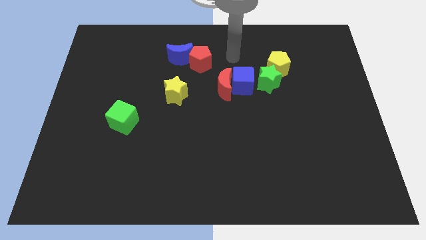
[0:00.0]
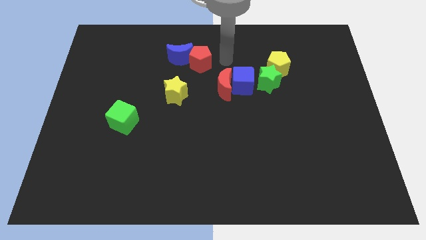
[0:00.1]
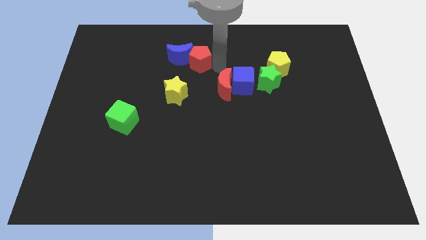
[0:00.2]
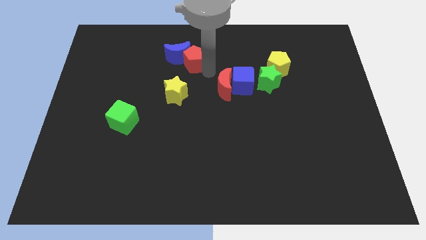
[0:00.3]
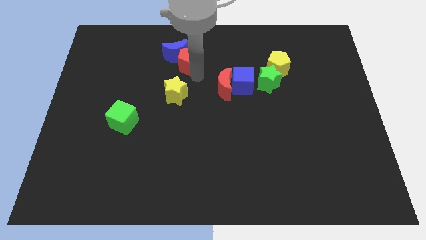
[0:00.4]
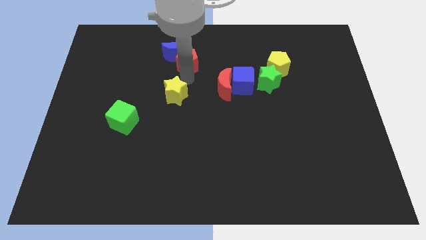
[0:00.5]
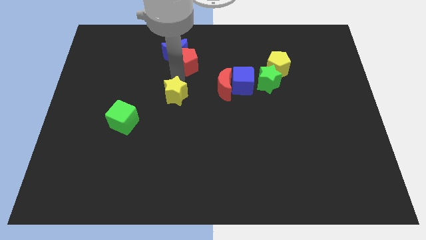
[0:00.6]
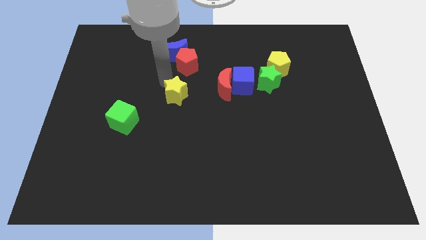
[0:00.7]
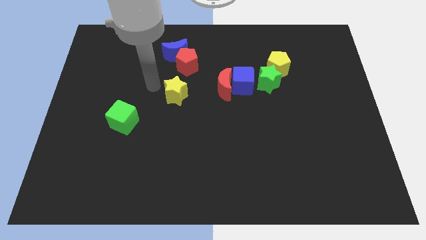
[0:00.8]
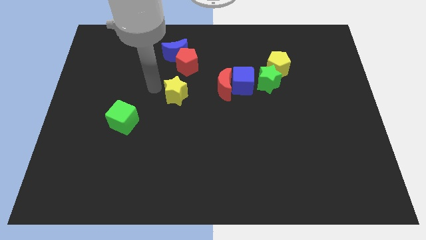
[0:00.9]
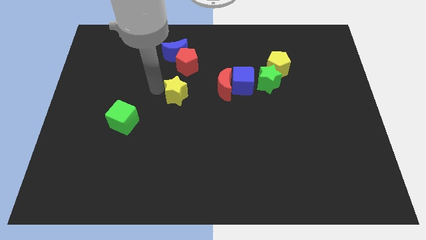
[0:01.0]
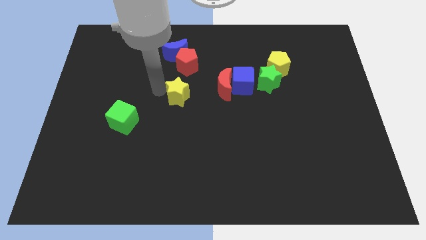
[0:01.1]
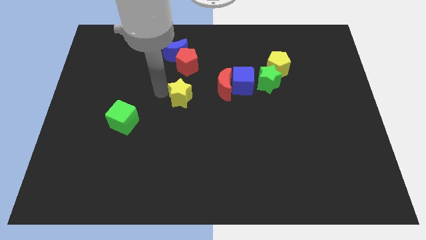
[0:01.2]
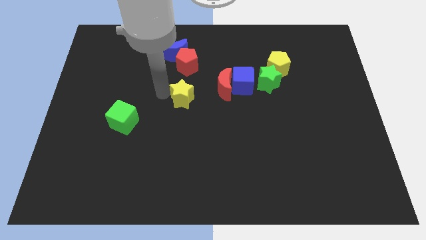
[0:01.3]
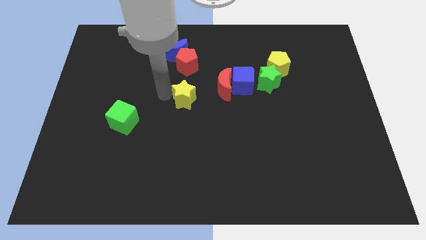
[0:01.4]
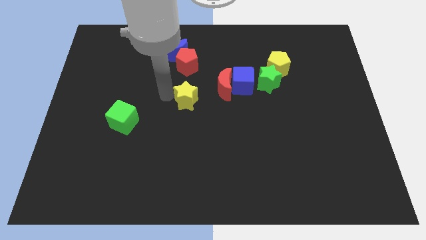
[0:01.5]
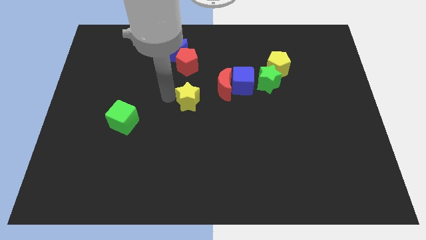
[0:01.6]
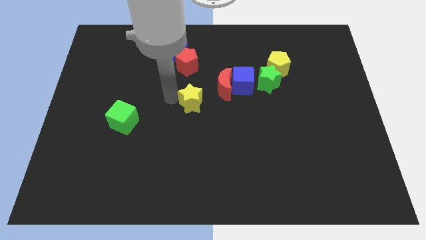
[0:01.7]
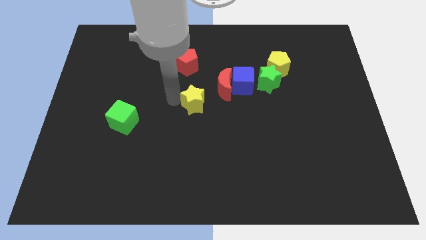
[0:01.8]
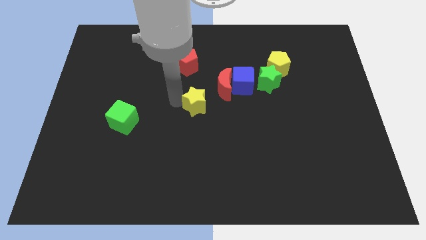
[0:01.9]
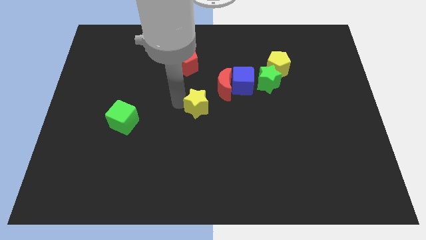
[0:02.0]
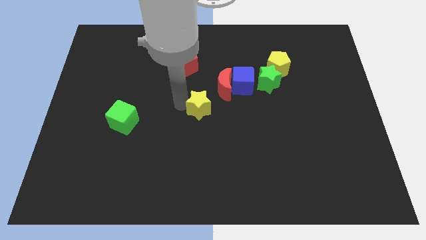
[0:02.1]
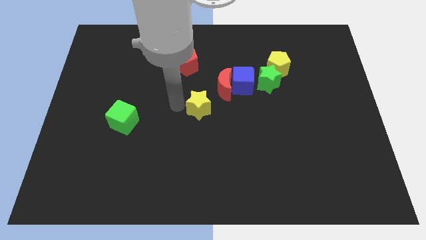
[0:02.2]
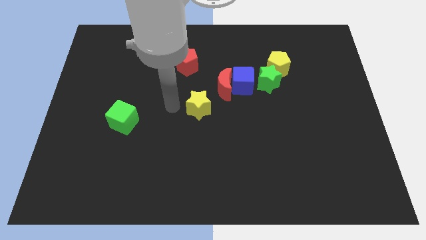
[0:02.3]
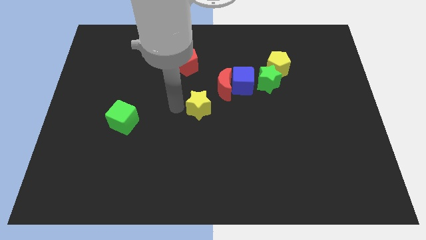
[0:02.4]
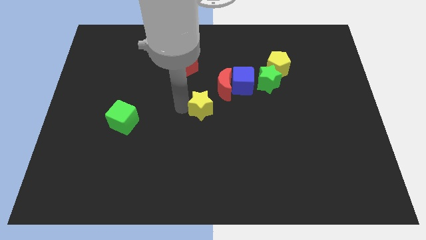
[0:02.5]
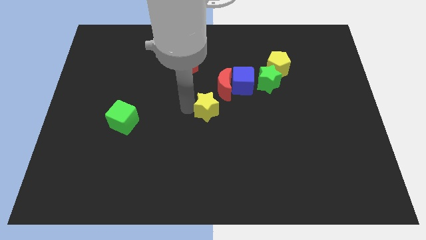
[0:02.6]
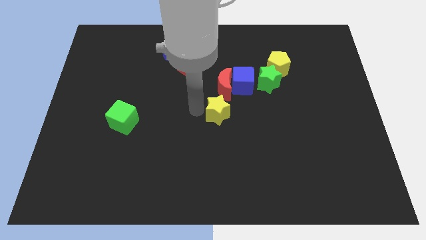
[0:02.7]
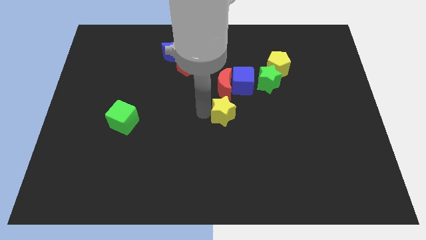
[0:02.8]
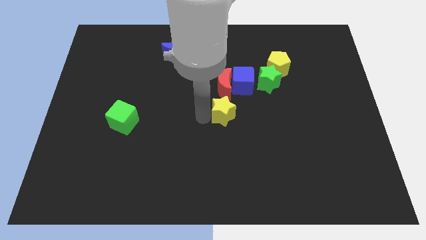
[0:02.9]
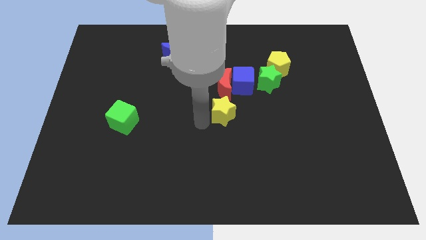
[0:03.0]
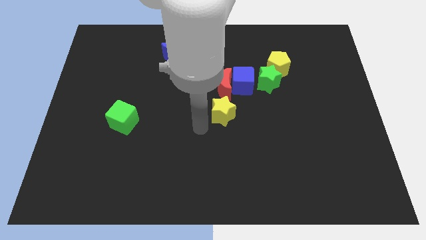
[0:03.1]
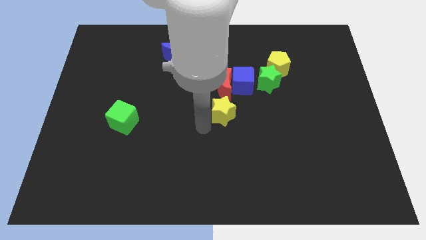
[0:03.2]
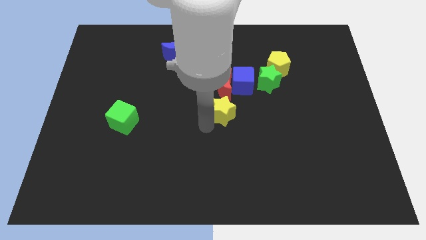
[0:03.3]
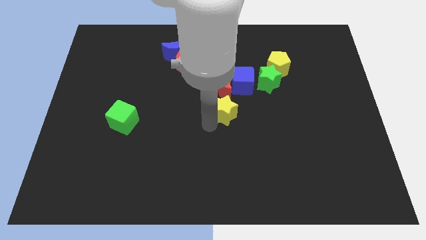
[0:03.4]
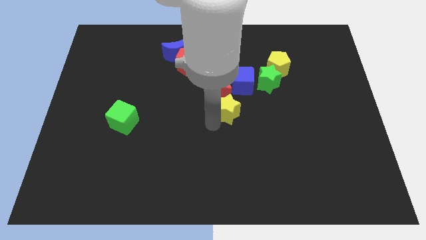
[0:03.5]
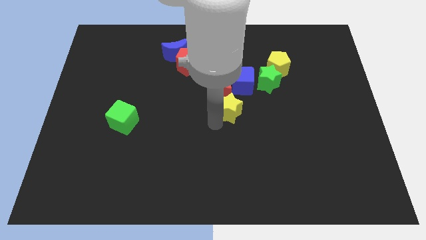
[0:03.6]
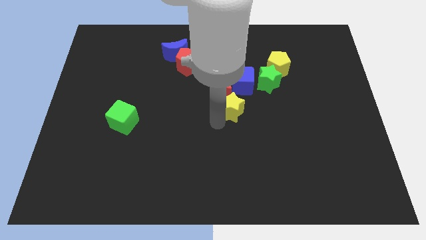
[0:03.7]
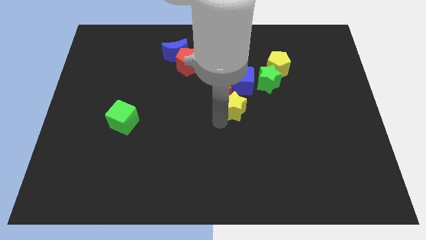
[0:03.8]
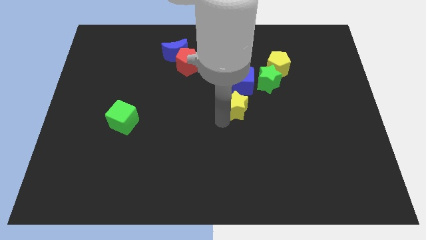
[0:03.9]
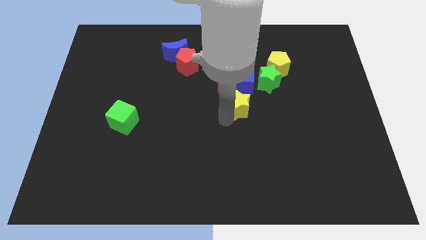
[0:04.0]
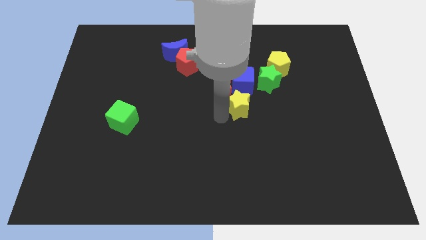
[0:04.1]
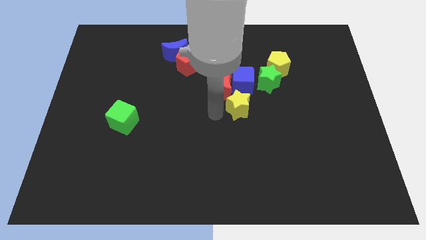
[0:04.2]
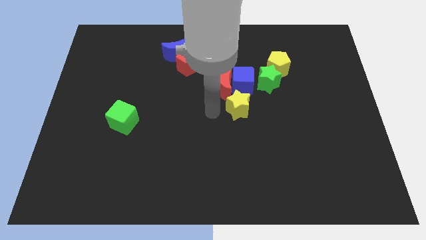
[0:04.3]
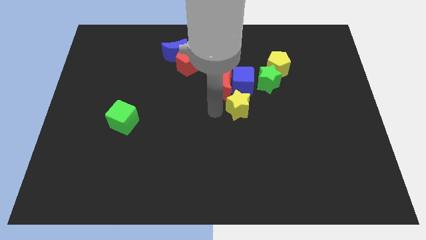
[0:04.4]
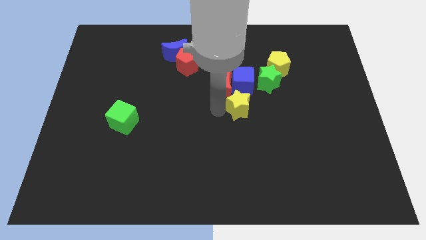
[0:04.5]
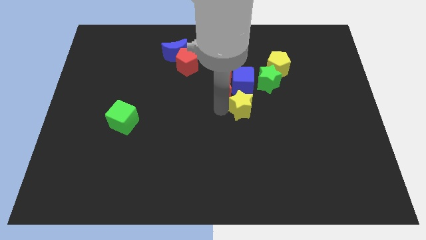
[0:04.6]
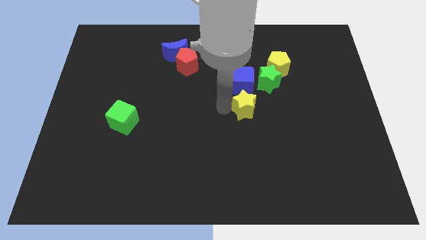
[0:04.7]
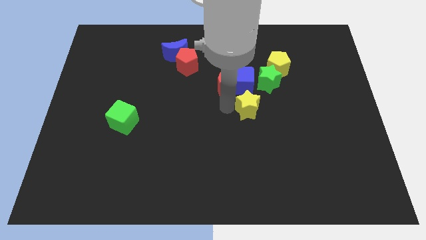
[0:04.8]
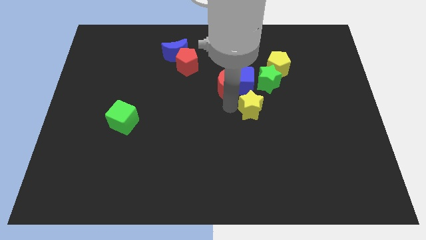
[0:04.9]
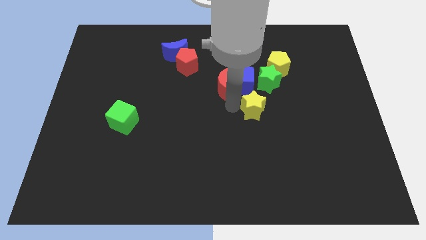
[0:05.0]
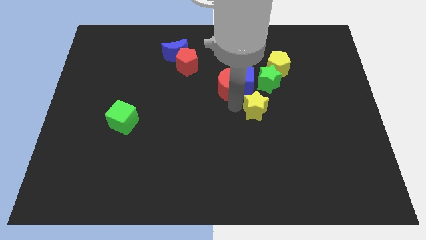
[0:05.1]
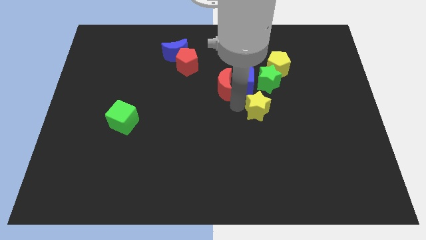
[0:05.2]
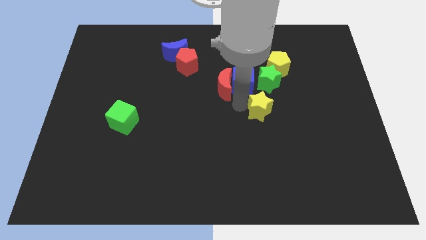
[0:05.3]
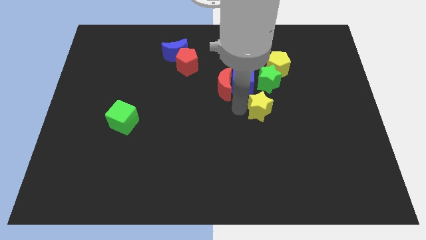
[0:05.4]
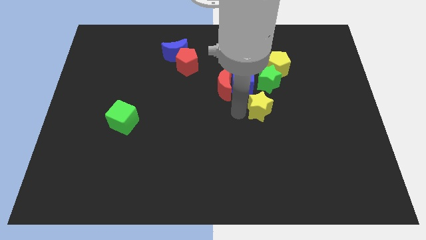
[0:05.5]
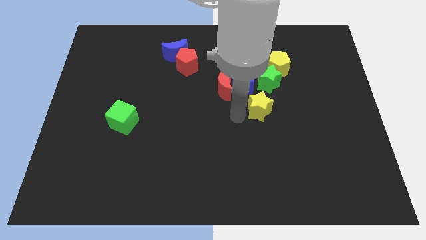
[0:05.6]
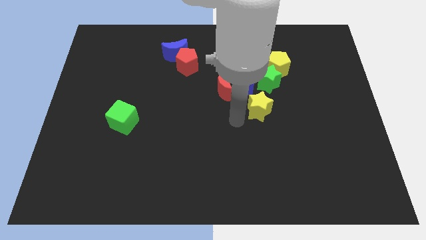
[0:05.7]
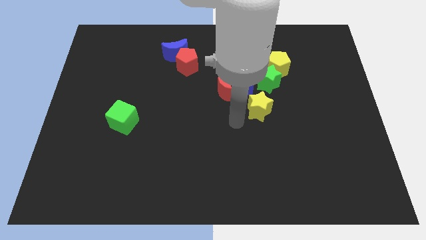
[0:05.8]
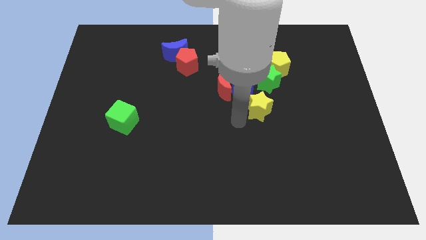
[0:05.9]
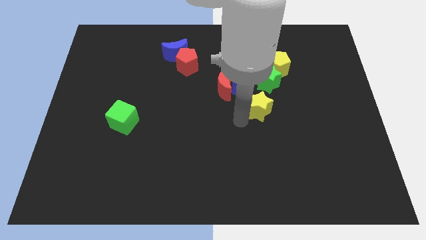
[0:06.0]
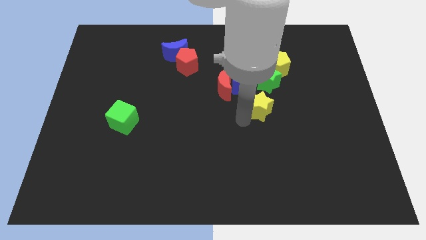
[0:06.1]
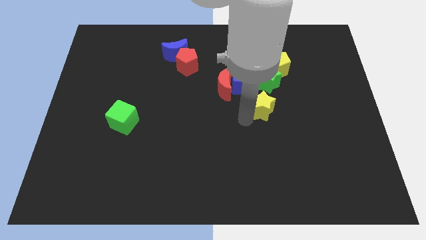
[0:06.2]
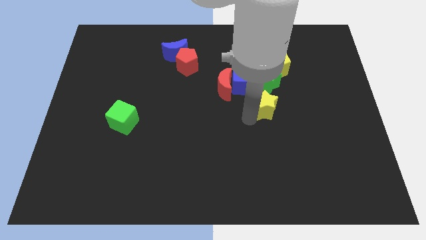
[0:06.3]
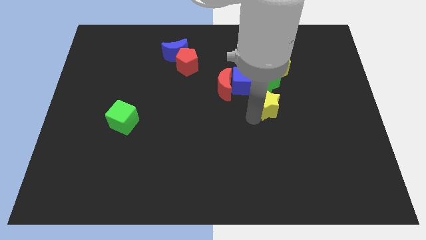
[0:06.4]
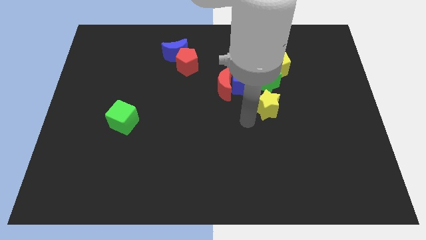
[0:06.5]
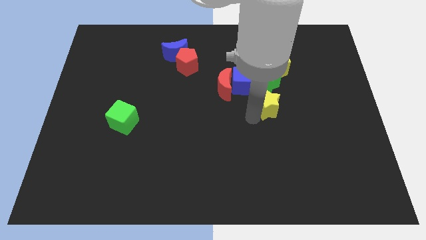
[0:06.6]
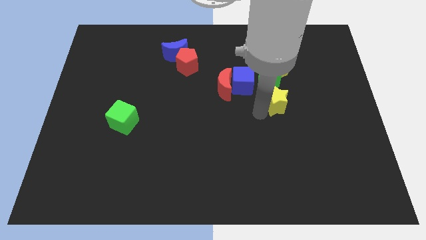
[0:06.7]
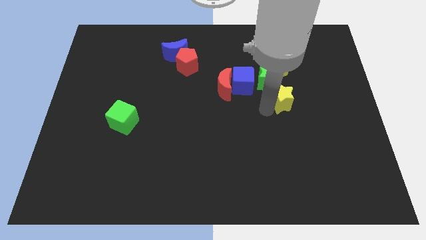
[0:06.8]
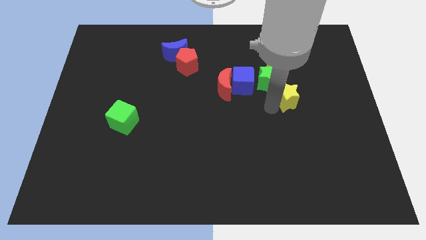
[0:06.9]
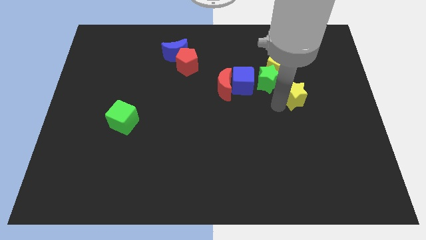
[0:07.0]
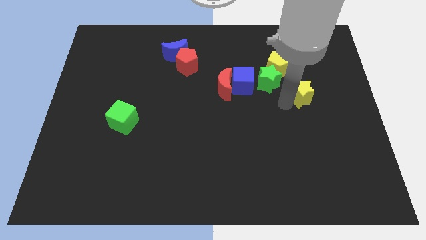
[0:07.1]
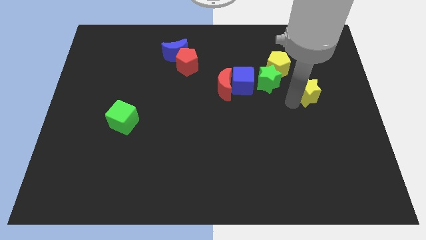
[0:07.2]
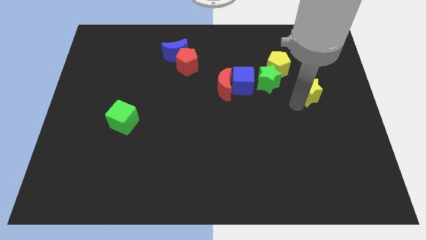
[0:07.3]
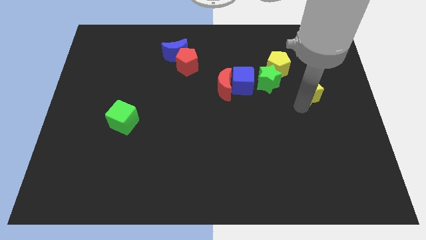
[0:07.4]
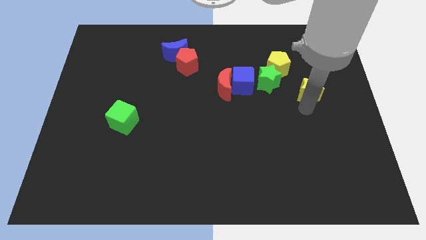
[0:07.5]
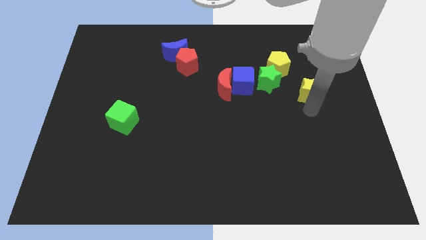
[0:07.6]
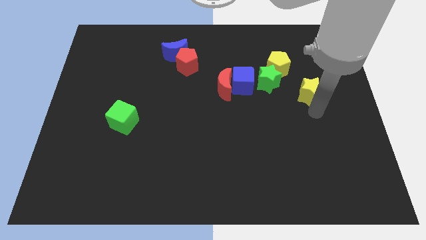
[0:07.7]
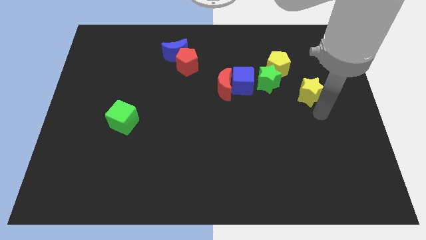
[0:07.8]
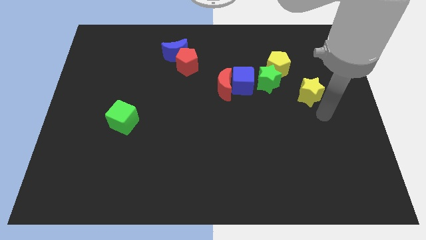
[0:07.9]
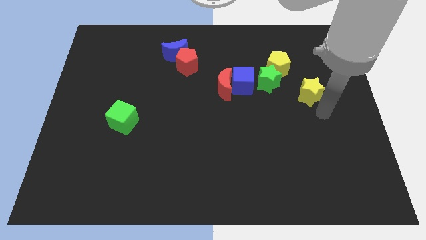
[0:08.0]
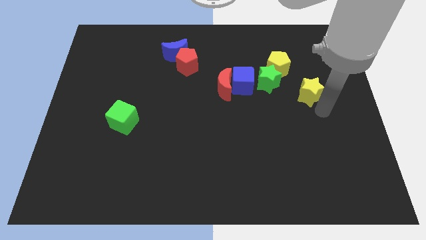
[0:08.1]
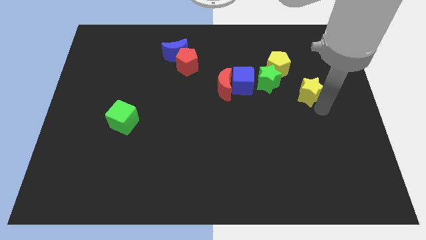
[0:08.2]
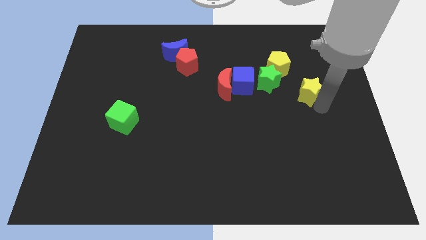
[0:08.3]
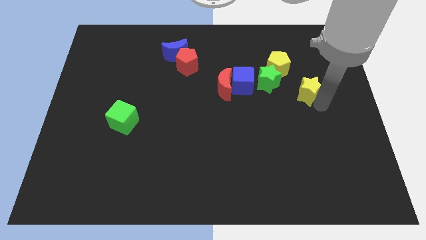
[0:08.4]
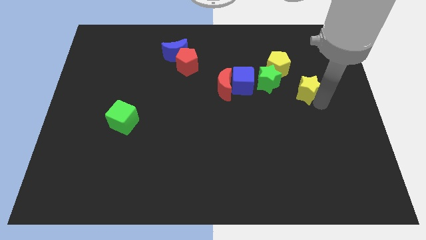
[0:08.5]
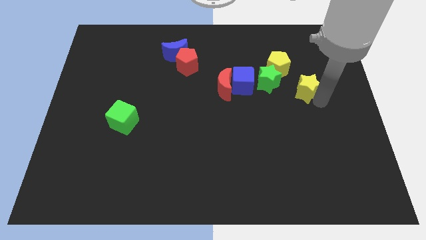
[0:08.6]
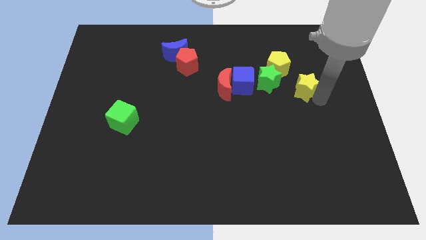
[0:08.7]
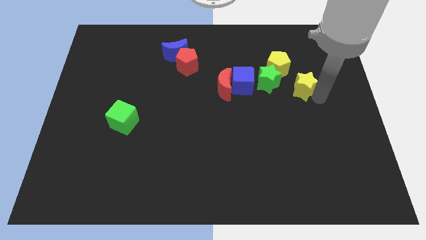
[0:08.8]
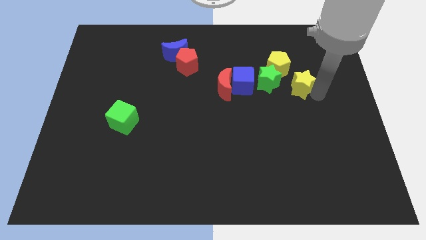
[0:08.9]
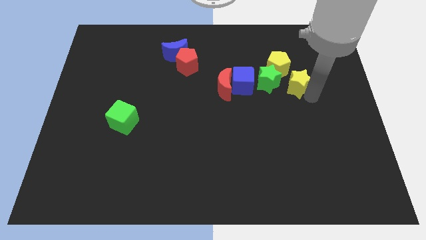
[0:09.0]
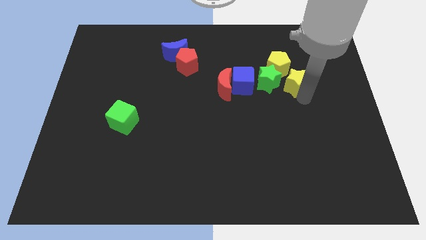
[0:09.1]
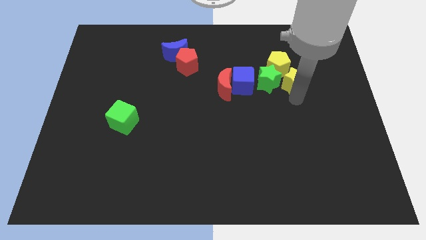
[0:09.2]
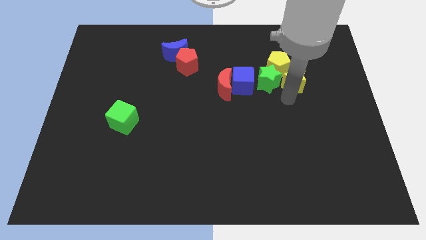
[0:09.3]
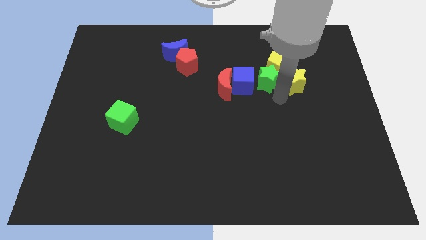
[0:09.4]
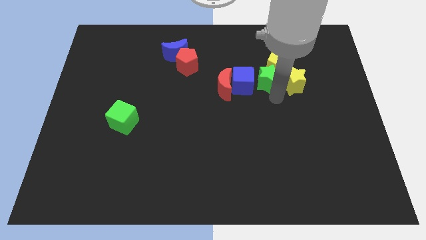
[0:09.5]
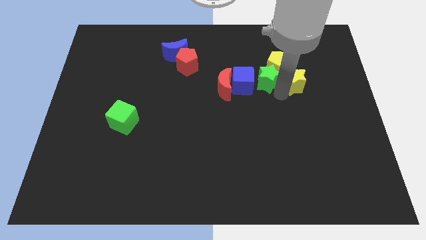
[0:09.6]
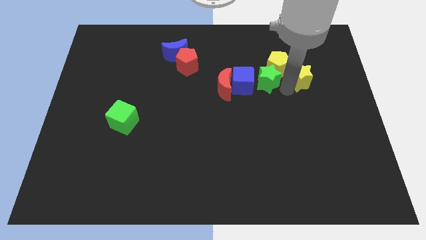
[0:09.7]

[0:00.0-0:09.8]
move the yellow star to the right of the yellow pentagon
